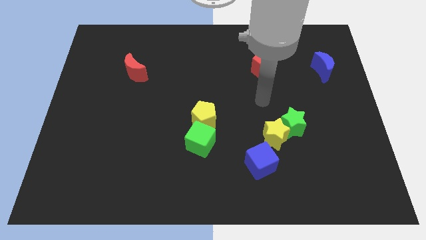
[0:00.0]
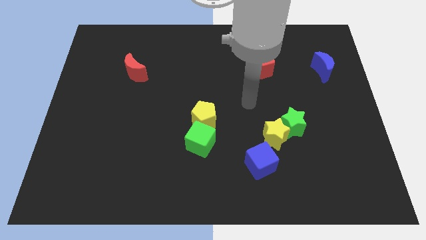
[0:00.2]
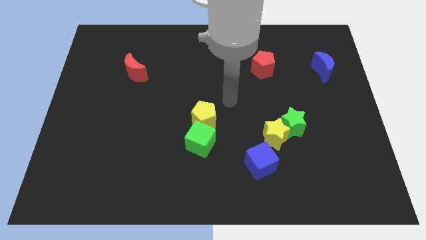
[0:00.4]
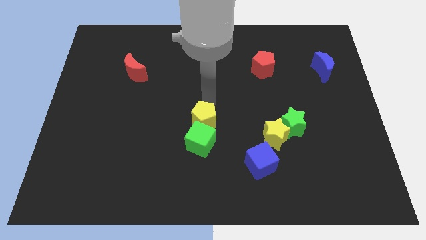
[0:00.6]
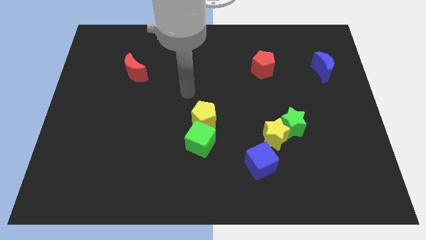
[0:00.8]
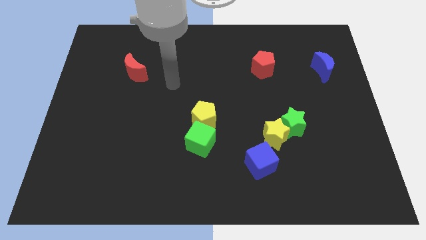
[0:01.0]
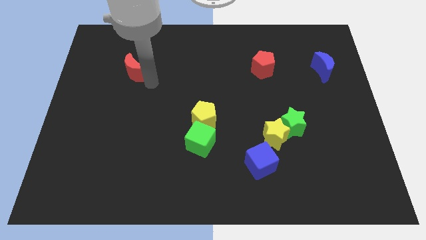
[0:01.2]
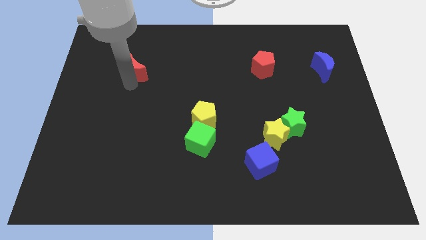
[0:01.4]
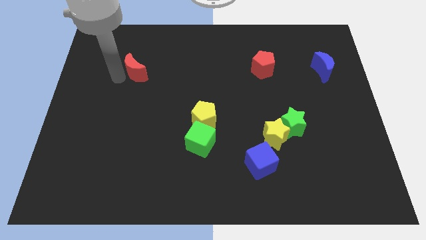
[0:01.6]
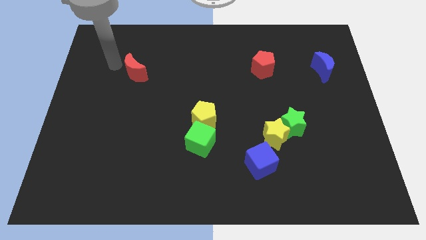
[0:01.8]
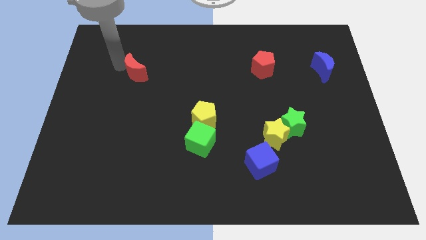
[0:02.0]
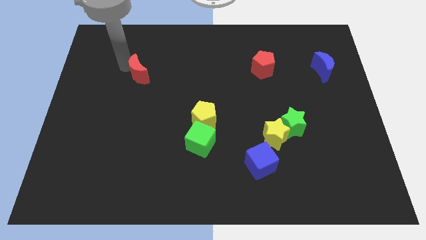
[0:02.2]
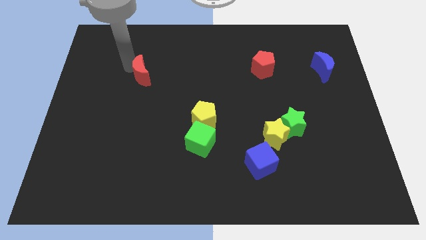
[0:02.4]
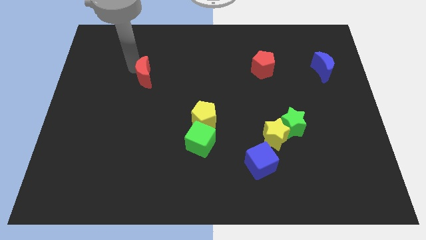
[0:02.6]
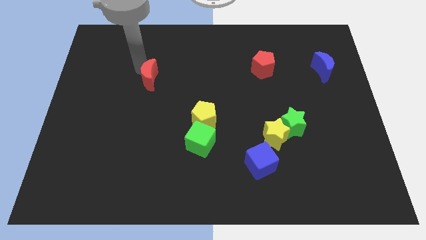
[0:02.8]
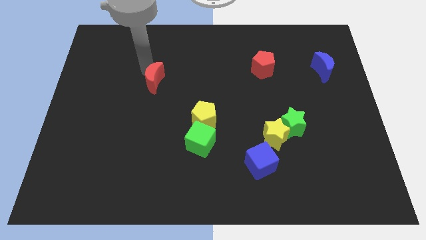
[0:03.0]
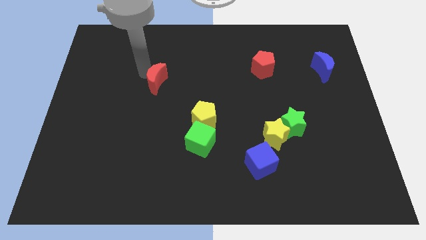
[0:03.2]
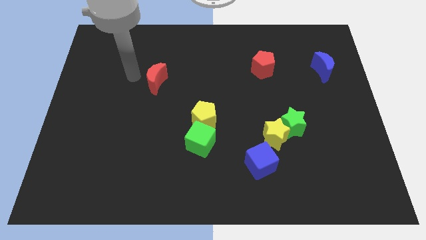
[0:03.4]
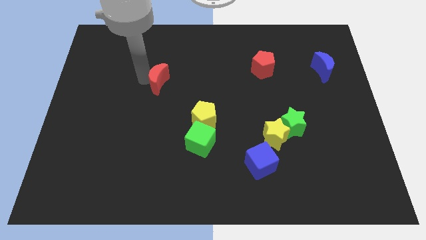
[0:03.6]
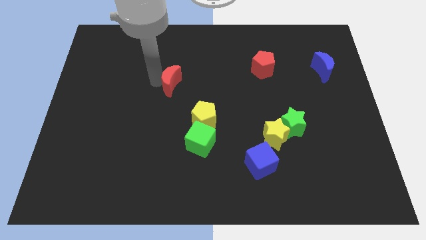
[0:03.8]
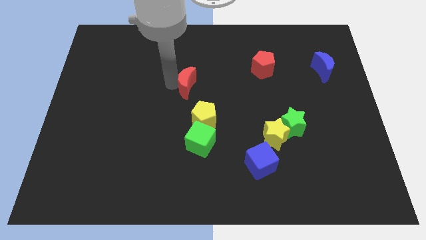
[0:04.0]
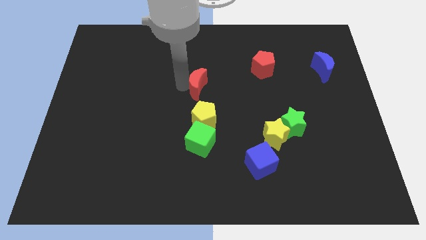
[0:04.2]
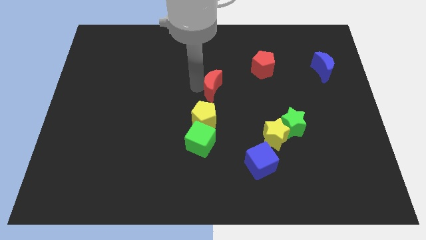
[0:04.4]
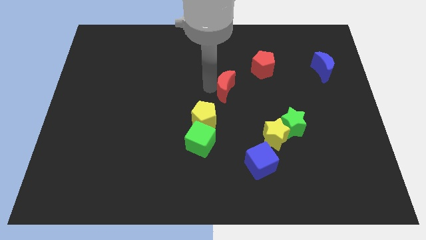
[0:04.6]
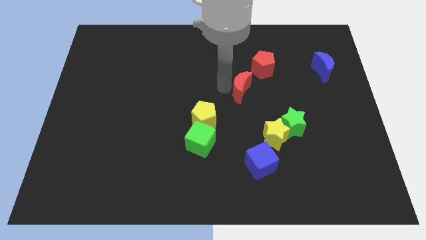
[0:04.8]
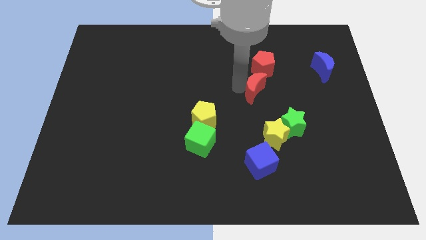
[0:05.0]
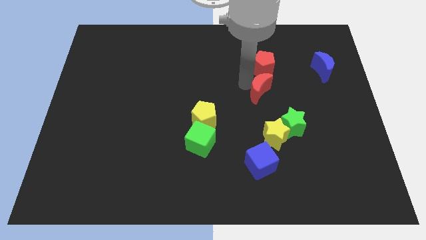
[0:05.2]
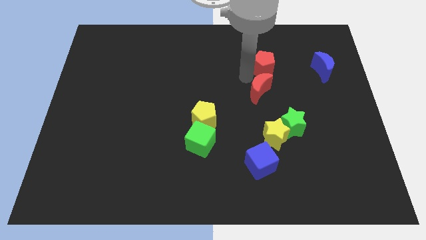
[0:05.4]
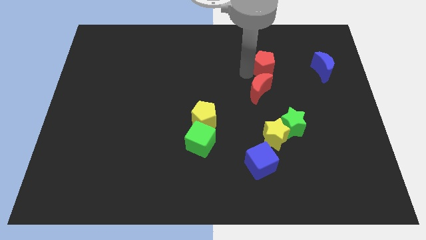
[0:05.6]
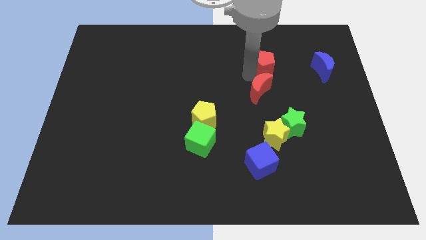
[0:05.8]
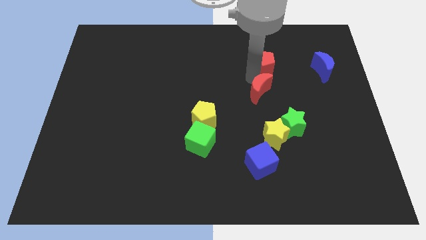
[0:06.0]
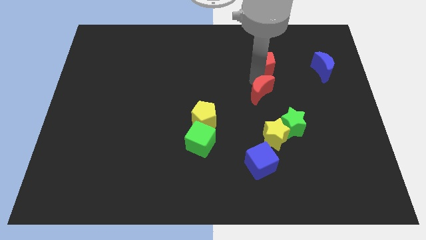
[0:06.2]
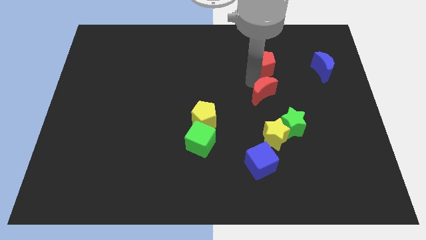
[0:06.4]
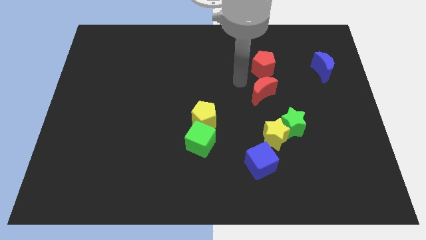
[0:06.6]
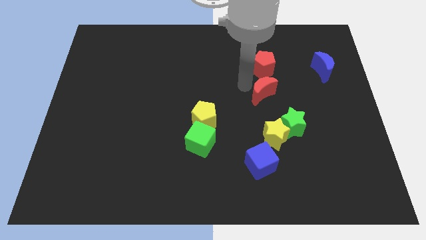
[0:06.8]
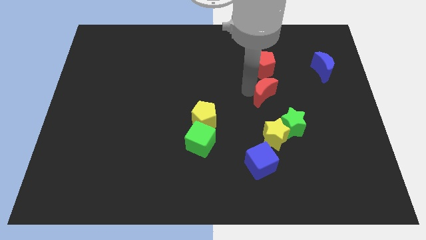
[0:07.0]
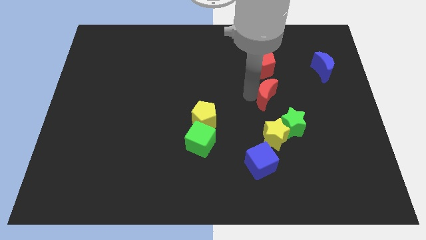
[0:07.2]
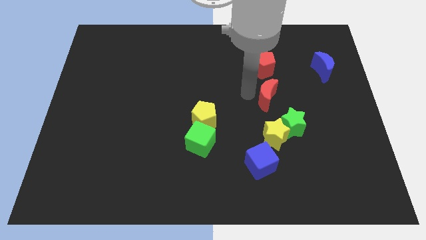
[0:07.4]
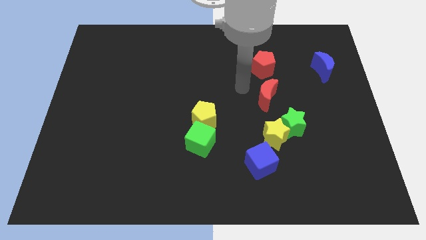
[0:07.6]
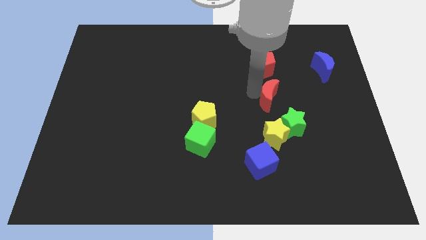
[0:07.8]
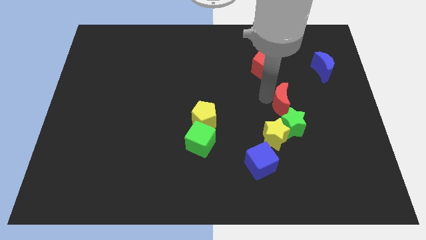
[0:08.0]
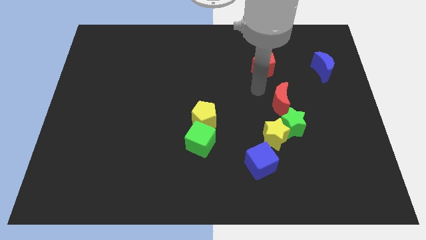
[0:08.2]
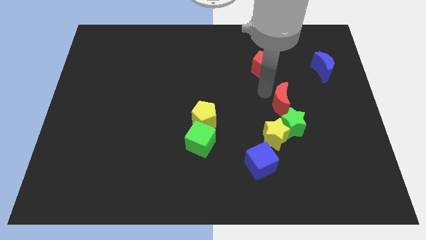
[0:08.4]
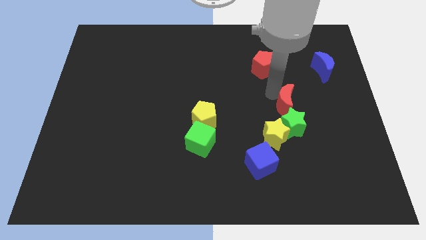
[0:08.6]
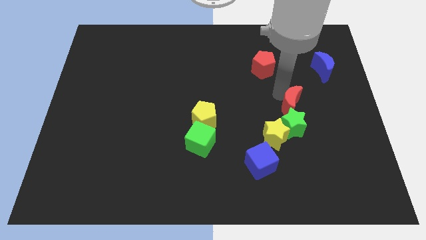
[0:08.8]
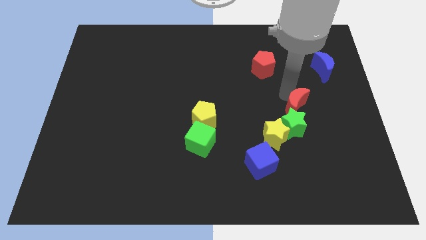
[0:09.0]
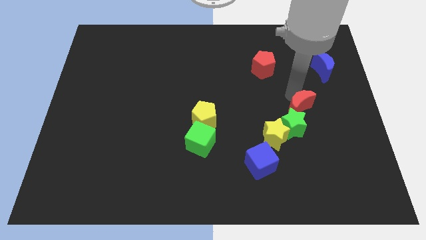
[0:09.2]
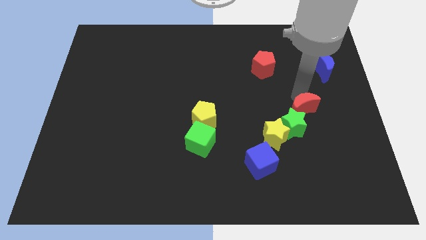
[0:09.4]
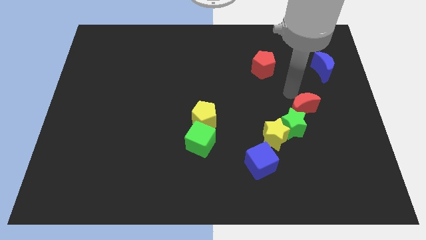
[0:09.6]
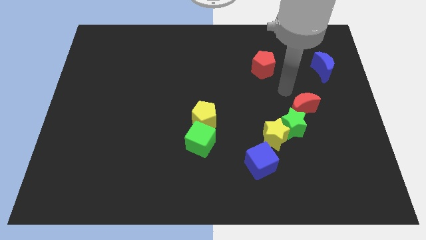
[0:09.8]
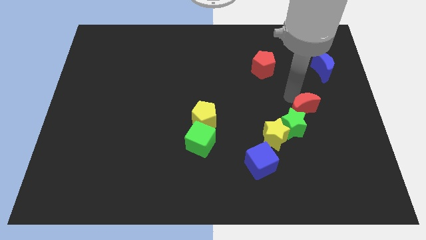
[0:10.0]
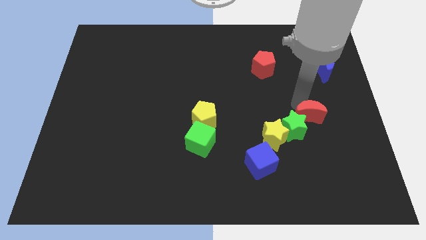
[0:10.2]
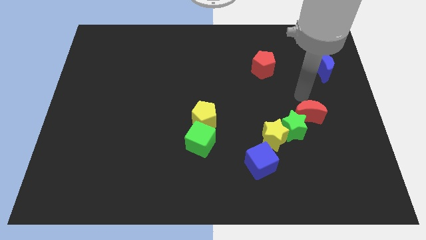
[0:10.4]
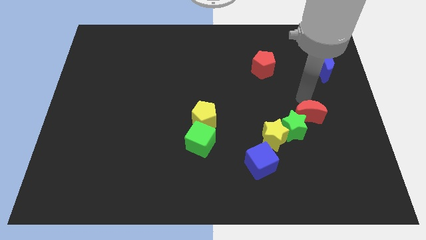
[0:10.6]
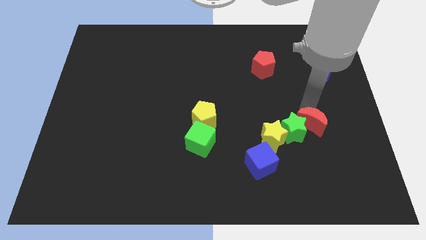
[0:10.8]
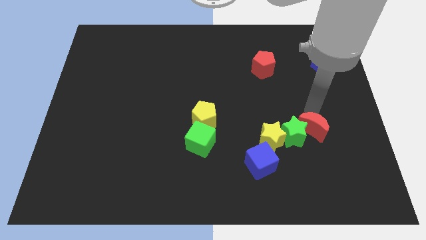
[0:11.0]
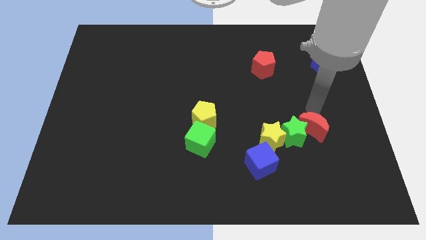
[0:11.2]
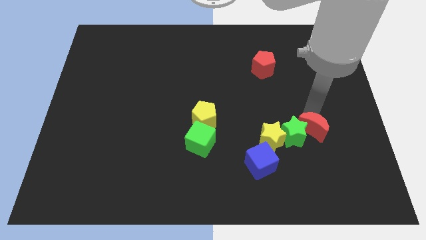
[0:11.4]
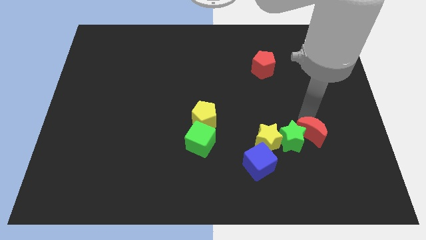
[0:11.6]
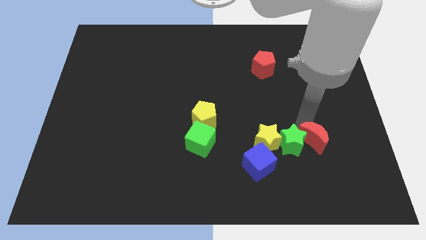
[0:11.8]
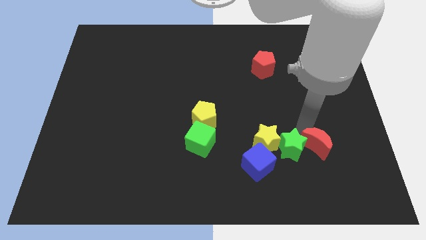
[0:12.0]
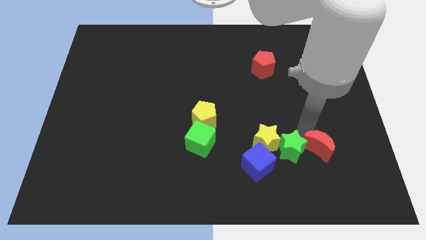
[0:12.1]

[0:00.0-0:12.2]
slide the red moon to the right side of the blue cube
